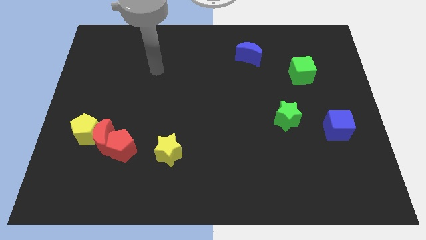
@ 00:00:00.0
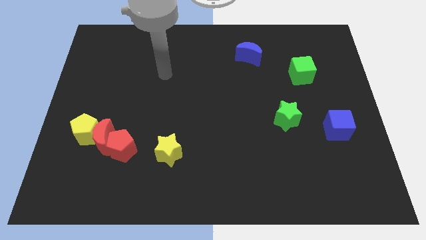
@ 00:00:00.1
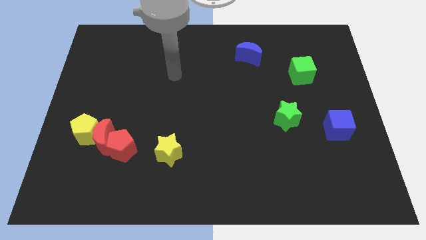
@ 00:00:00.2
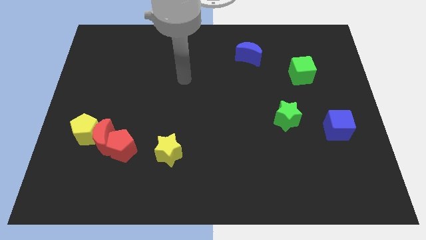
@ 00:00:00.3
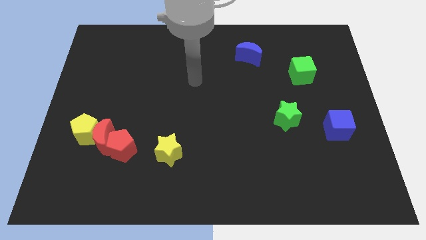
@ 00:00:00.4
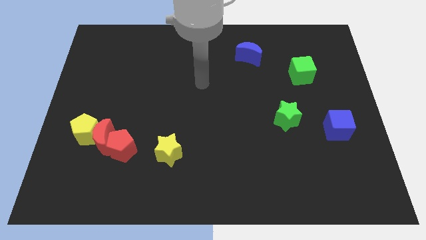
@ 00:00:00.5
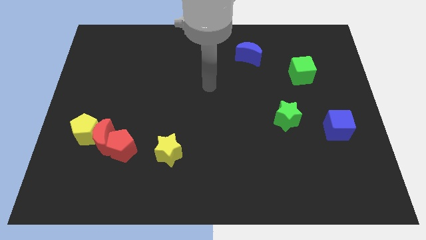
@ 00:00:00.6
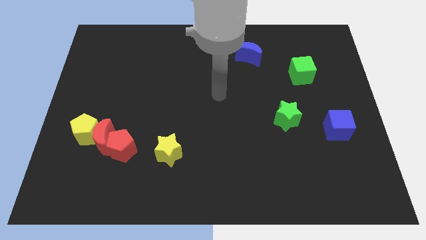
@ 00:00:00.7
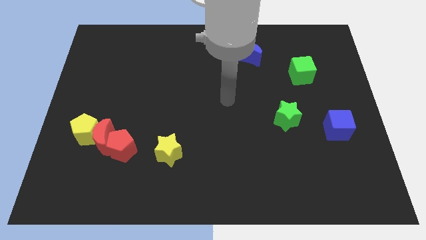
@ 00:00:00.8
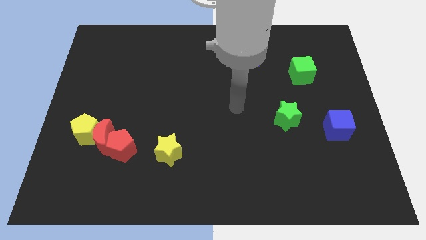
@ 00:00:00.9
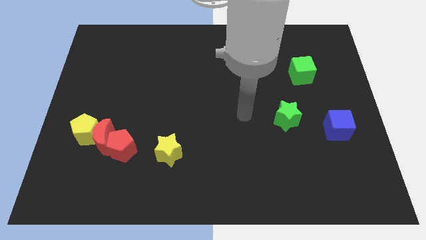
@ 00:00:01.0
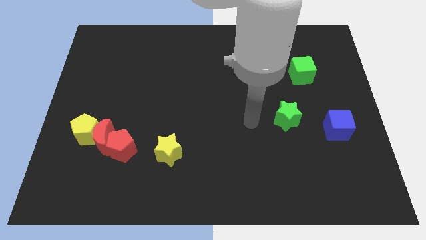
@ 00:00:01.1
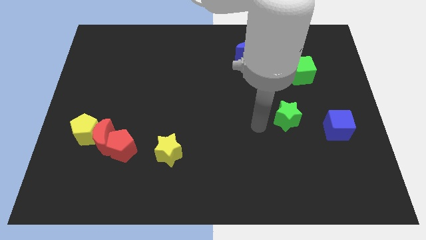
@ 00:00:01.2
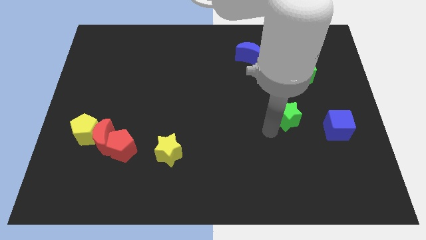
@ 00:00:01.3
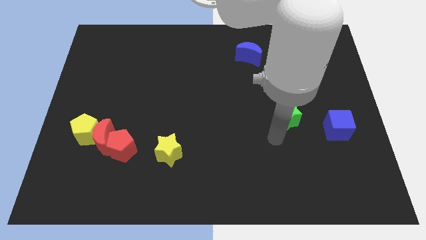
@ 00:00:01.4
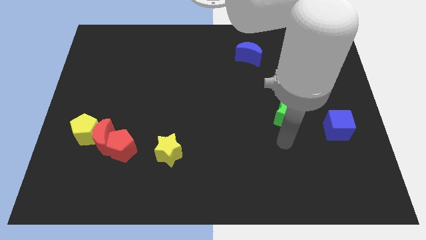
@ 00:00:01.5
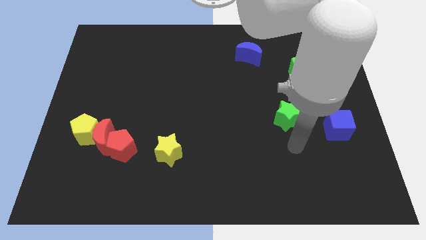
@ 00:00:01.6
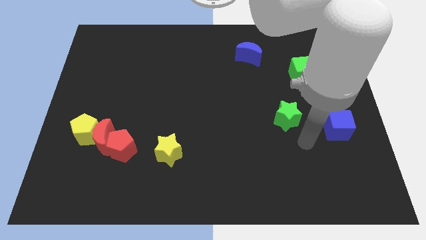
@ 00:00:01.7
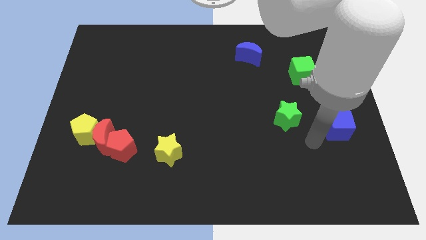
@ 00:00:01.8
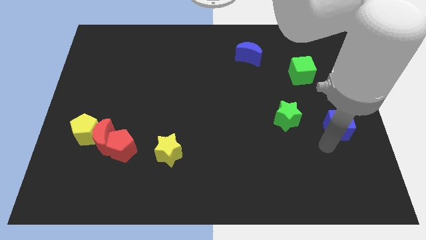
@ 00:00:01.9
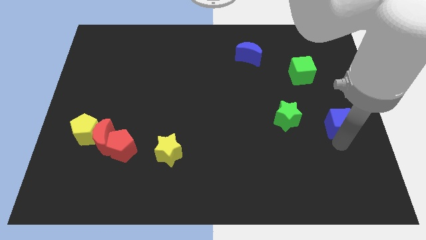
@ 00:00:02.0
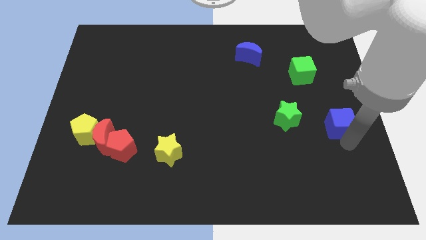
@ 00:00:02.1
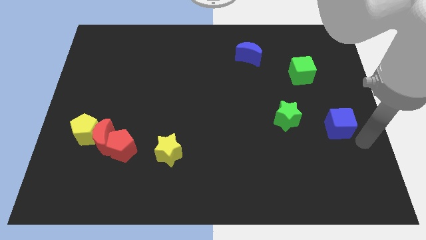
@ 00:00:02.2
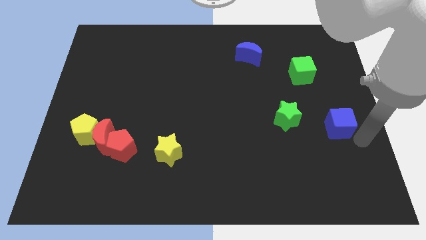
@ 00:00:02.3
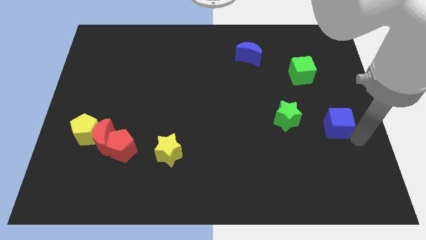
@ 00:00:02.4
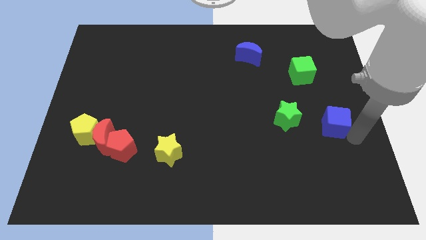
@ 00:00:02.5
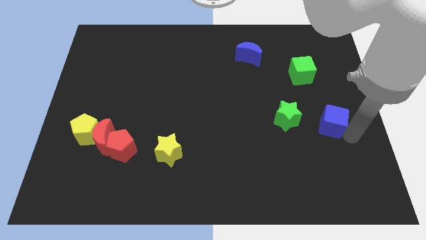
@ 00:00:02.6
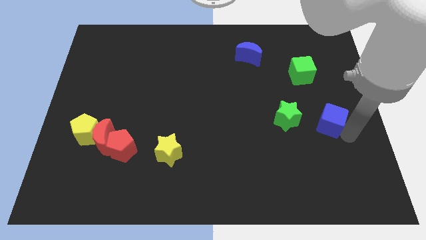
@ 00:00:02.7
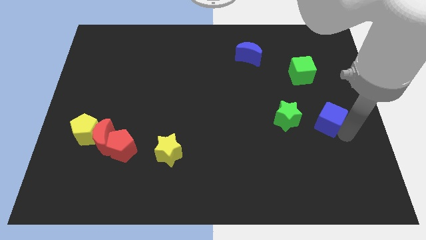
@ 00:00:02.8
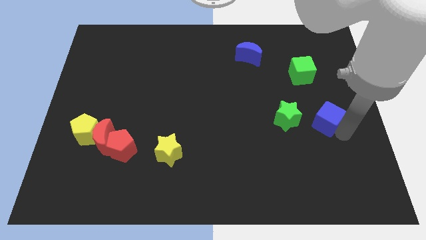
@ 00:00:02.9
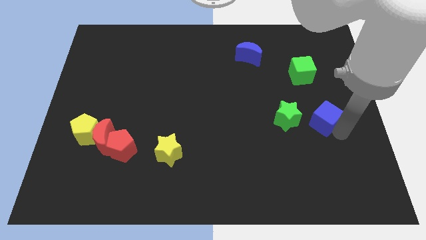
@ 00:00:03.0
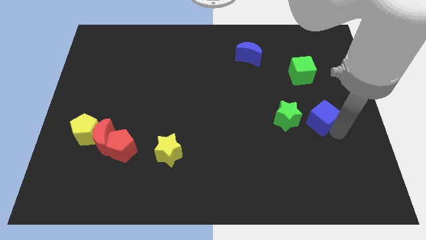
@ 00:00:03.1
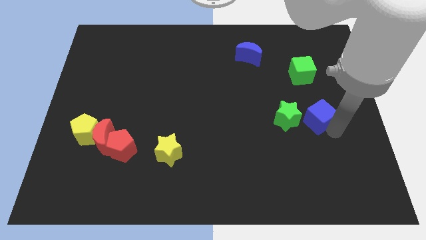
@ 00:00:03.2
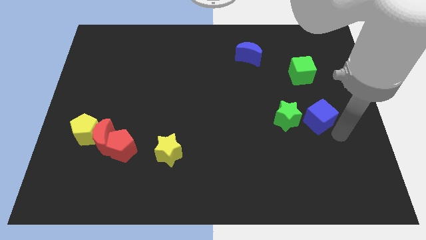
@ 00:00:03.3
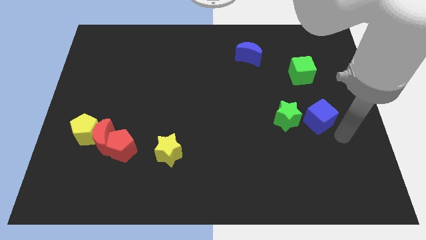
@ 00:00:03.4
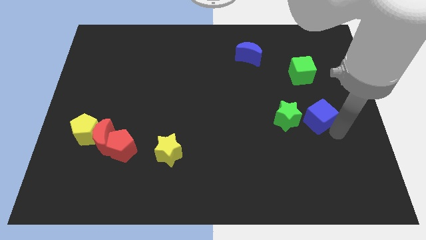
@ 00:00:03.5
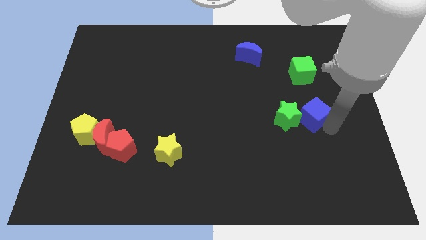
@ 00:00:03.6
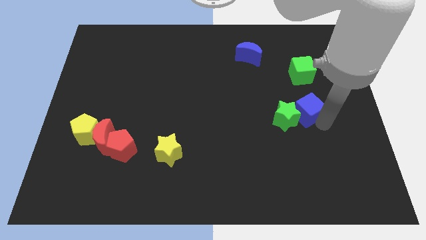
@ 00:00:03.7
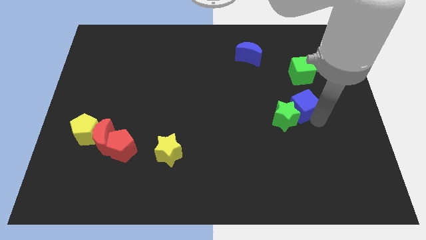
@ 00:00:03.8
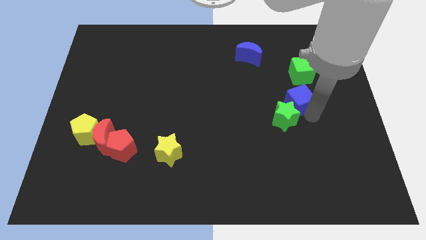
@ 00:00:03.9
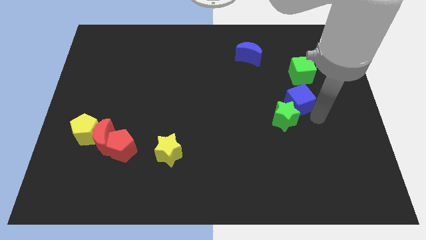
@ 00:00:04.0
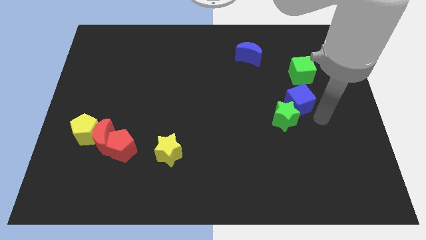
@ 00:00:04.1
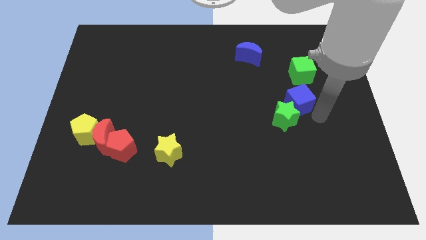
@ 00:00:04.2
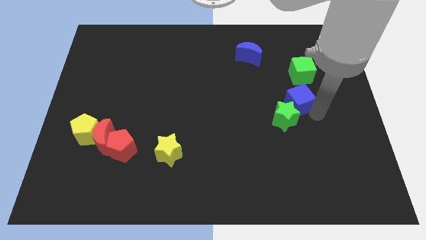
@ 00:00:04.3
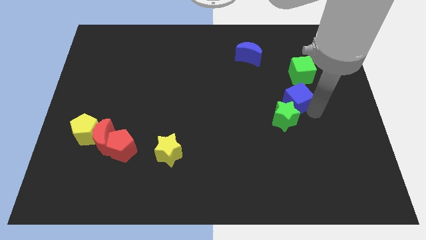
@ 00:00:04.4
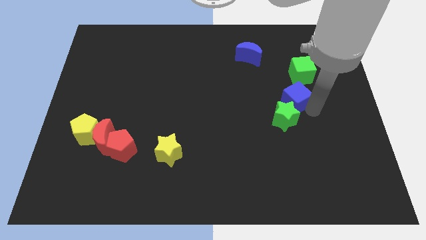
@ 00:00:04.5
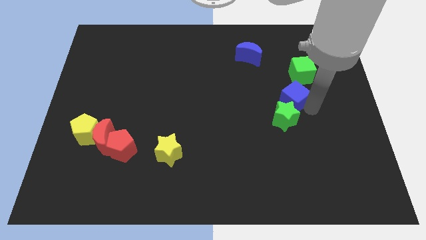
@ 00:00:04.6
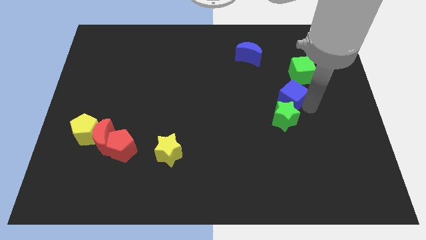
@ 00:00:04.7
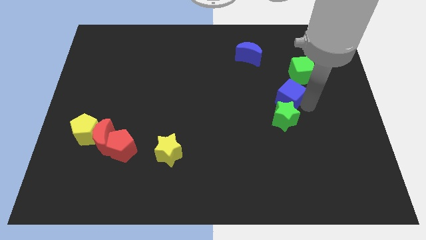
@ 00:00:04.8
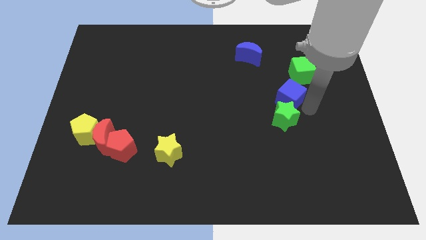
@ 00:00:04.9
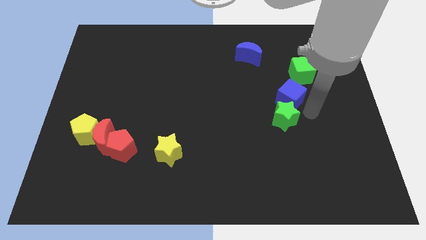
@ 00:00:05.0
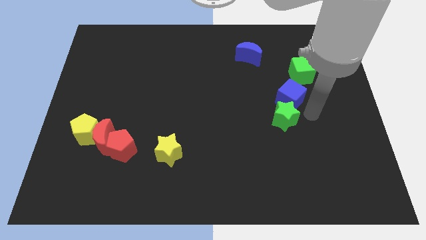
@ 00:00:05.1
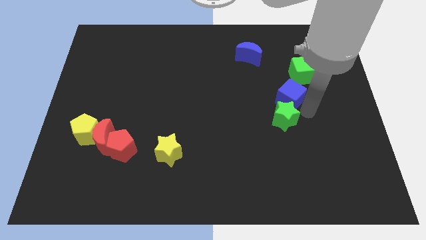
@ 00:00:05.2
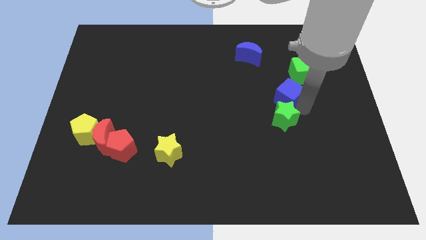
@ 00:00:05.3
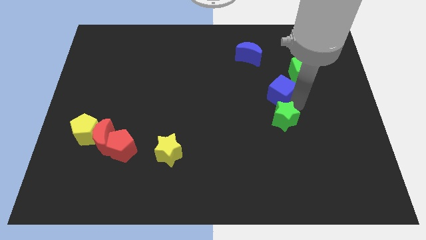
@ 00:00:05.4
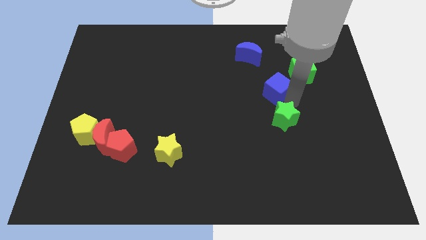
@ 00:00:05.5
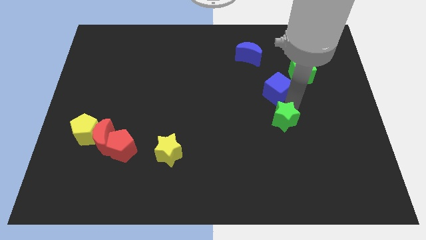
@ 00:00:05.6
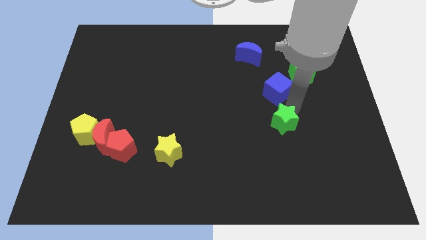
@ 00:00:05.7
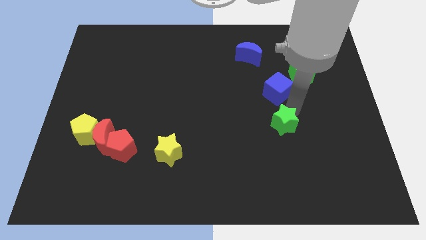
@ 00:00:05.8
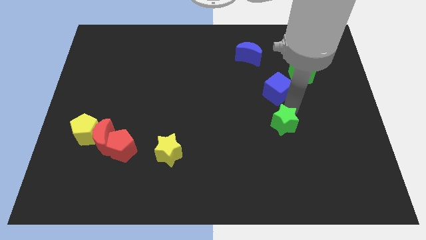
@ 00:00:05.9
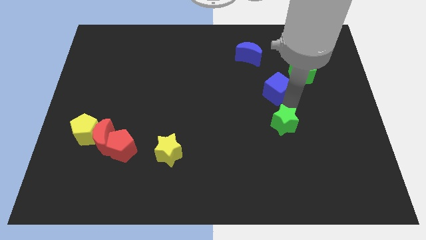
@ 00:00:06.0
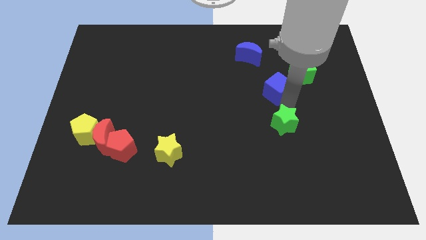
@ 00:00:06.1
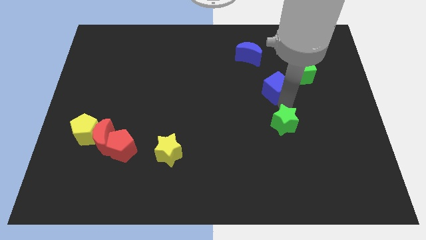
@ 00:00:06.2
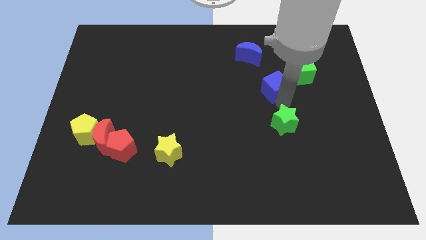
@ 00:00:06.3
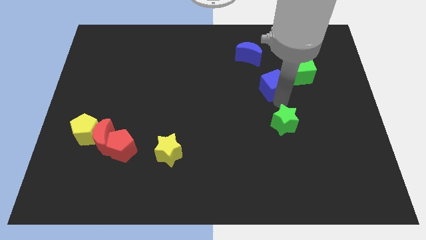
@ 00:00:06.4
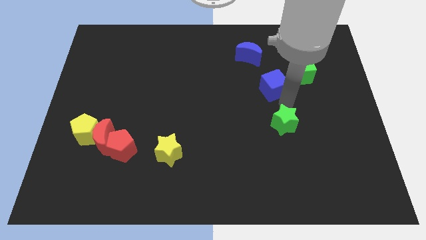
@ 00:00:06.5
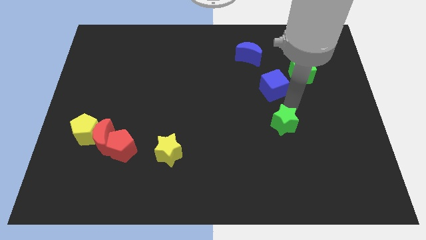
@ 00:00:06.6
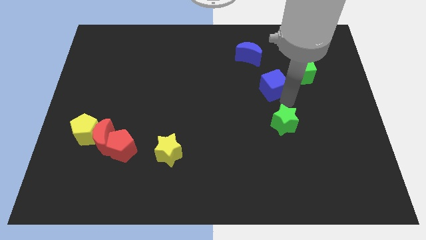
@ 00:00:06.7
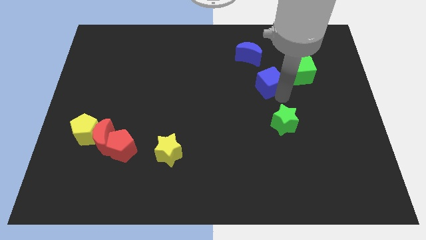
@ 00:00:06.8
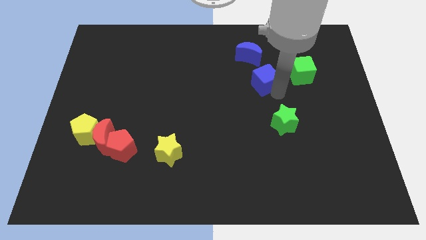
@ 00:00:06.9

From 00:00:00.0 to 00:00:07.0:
push the blue cube up and to the left diagonally

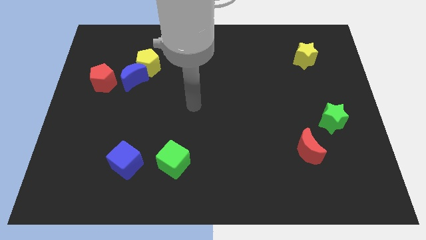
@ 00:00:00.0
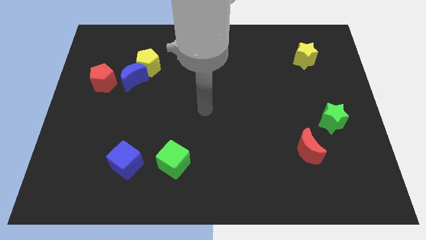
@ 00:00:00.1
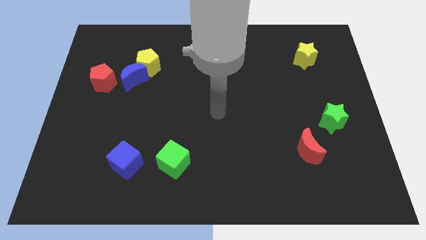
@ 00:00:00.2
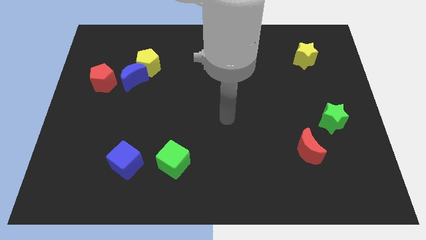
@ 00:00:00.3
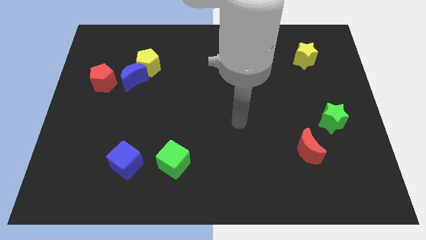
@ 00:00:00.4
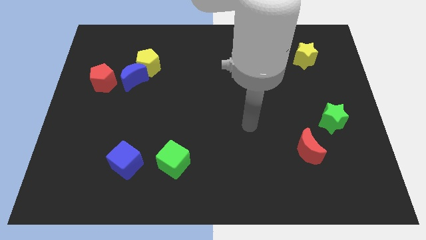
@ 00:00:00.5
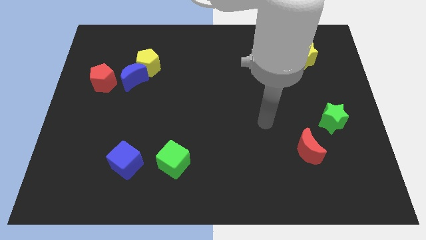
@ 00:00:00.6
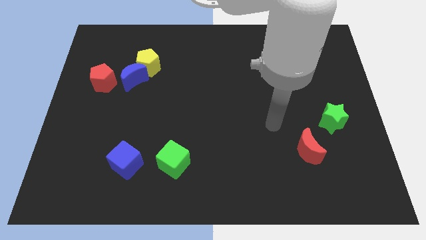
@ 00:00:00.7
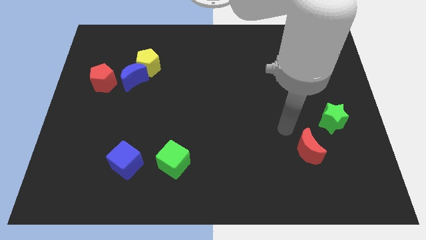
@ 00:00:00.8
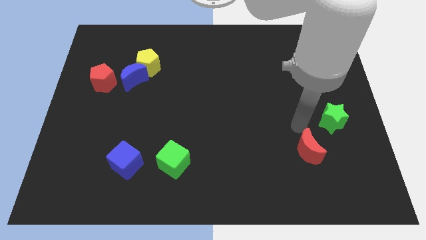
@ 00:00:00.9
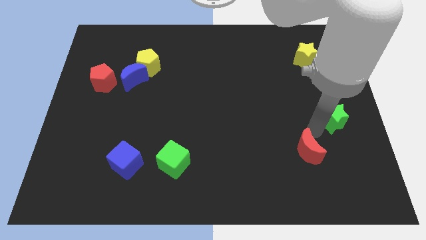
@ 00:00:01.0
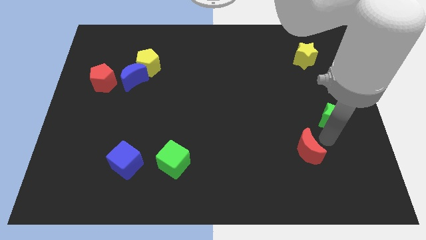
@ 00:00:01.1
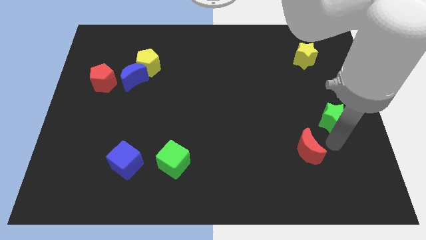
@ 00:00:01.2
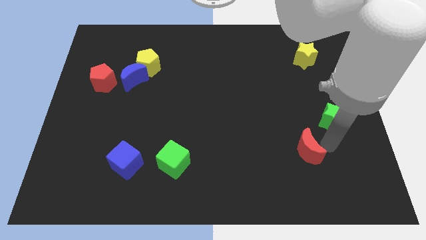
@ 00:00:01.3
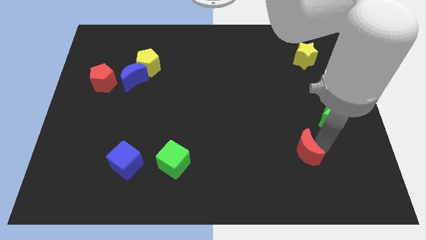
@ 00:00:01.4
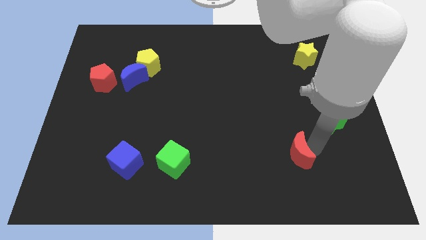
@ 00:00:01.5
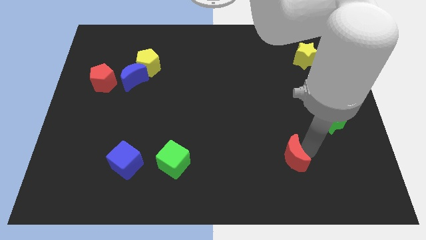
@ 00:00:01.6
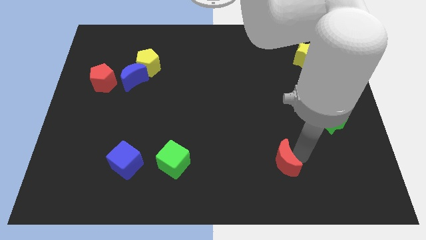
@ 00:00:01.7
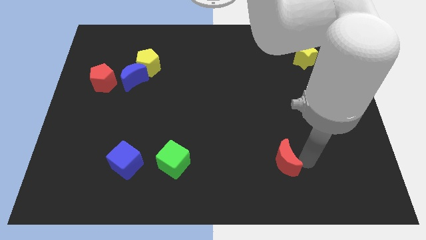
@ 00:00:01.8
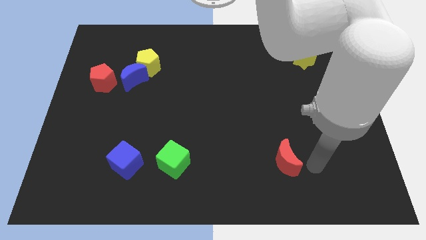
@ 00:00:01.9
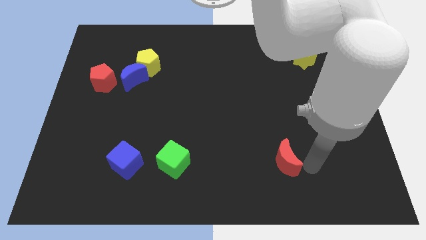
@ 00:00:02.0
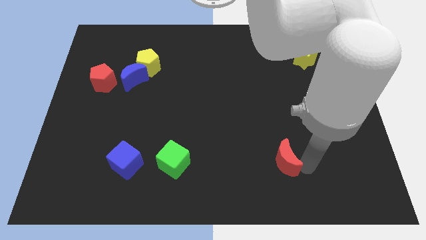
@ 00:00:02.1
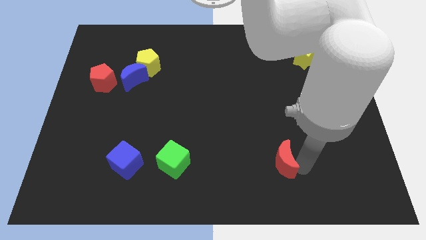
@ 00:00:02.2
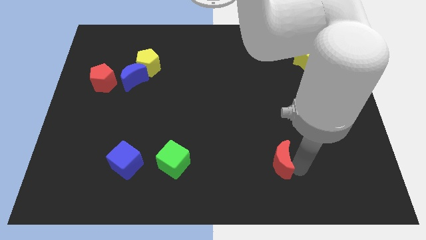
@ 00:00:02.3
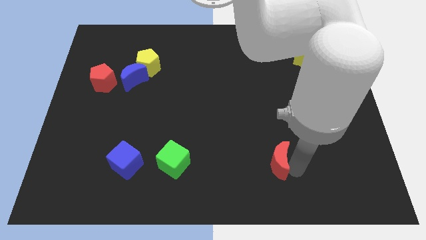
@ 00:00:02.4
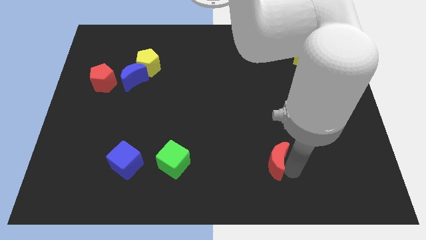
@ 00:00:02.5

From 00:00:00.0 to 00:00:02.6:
slide the red moon to the left slightly
